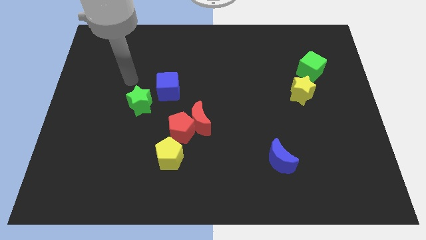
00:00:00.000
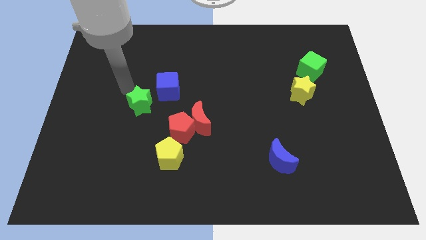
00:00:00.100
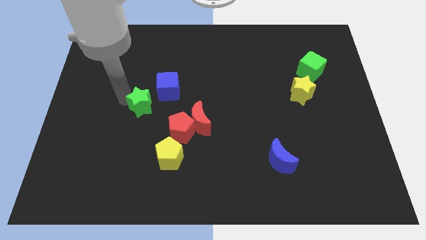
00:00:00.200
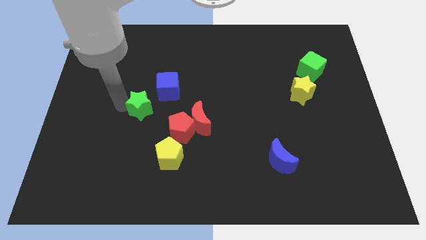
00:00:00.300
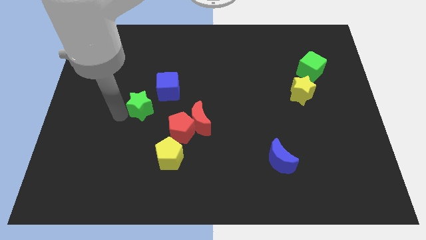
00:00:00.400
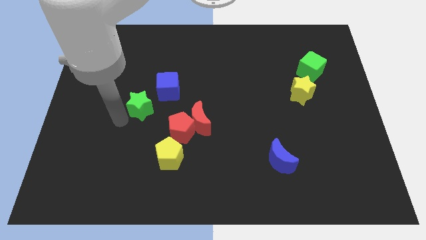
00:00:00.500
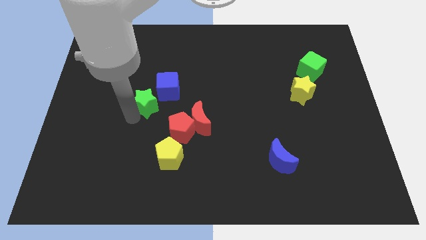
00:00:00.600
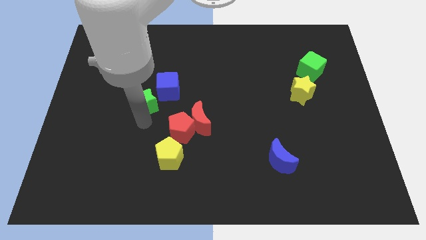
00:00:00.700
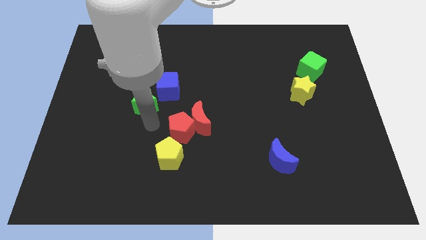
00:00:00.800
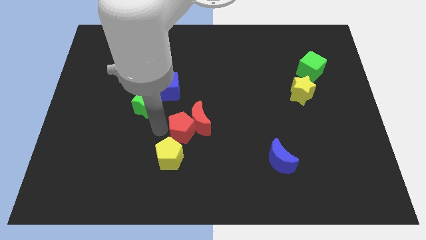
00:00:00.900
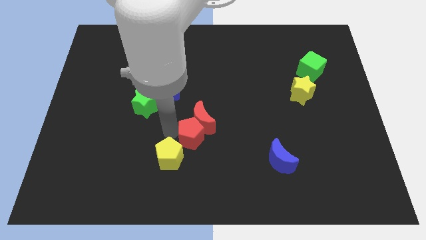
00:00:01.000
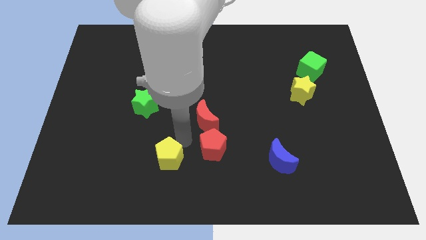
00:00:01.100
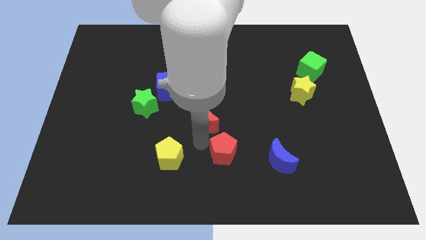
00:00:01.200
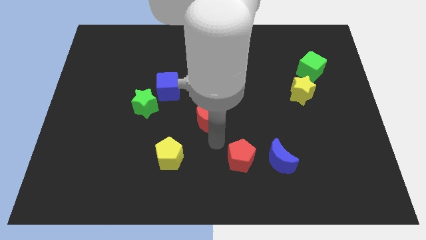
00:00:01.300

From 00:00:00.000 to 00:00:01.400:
separate the red moon from the red pentagon

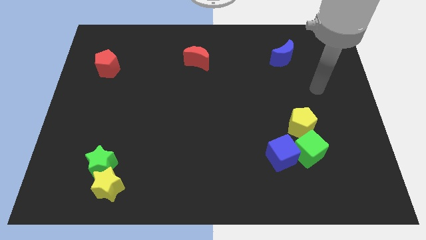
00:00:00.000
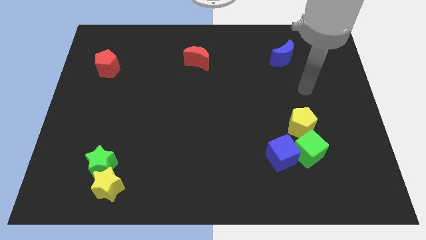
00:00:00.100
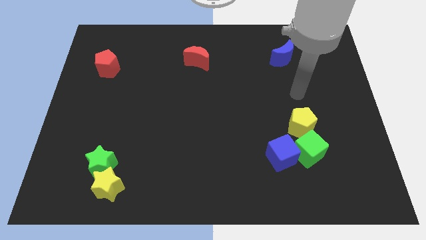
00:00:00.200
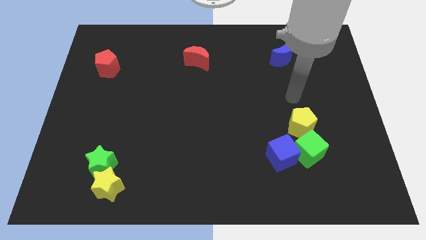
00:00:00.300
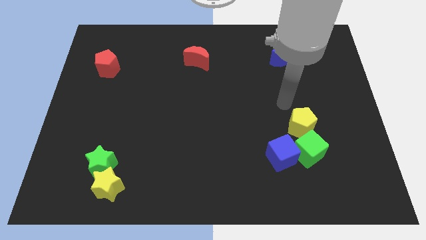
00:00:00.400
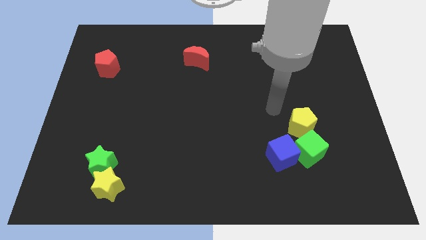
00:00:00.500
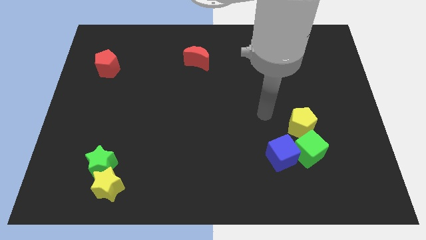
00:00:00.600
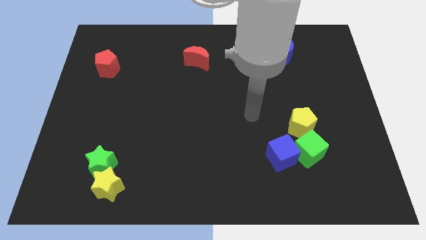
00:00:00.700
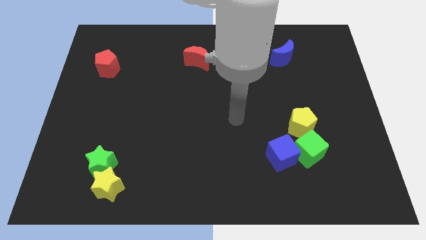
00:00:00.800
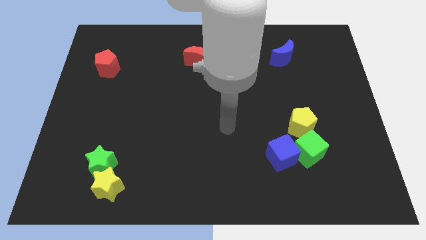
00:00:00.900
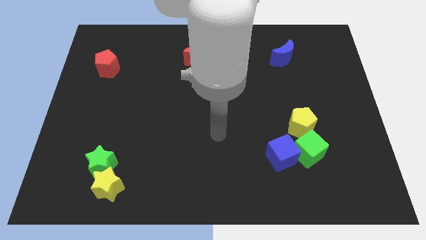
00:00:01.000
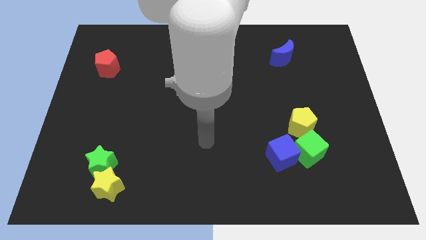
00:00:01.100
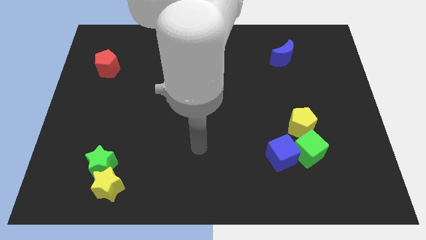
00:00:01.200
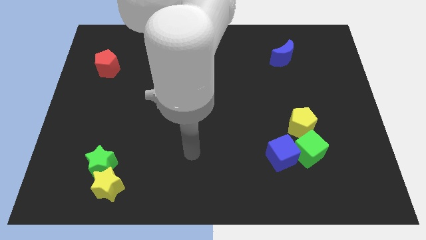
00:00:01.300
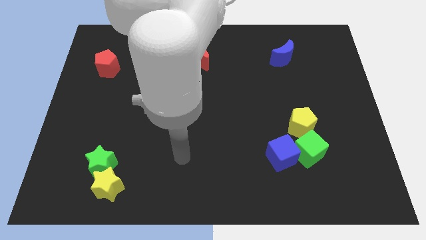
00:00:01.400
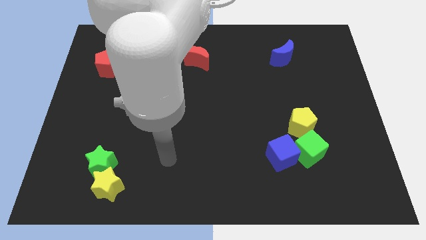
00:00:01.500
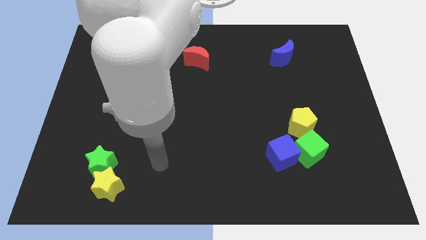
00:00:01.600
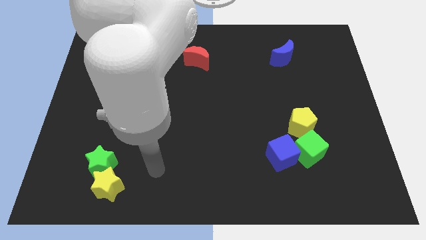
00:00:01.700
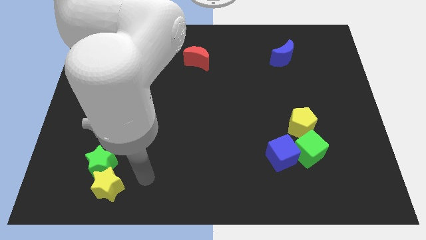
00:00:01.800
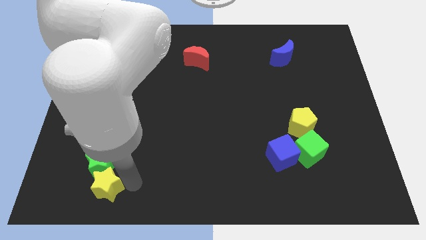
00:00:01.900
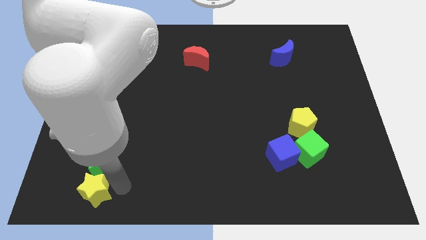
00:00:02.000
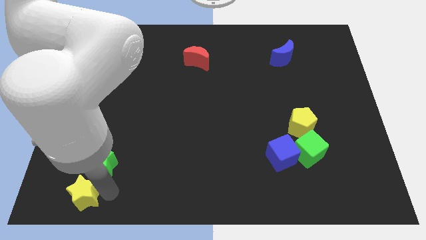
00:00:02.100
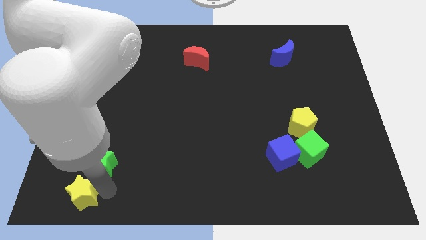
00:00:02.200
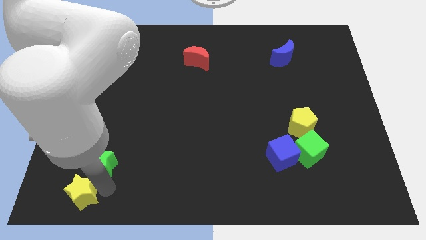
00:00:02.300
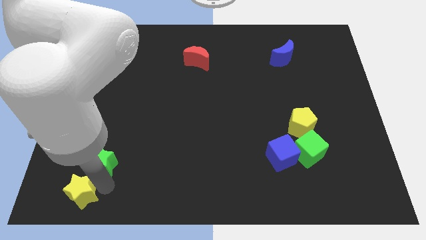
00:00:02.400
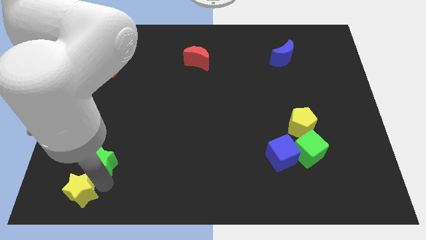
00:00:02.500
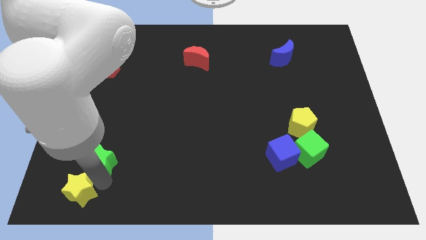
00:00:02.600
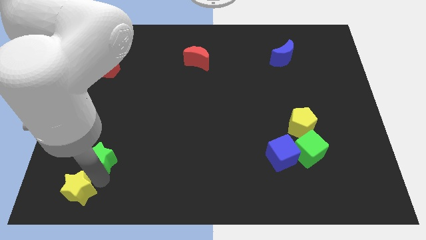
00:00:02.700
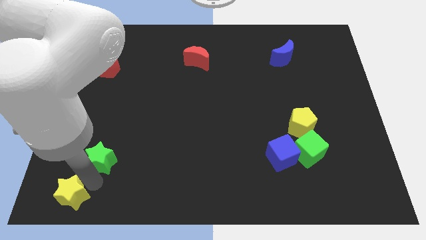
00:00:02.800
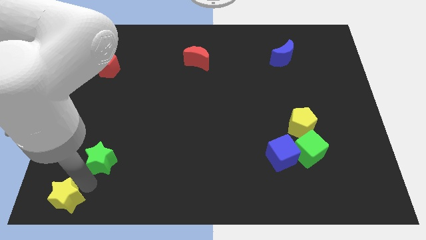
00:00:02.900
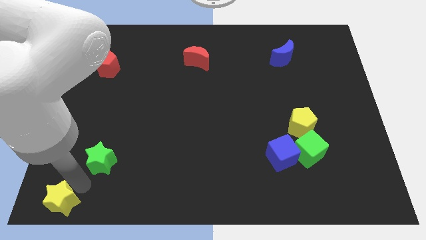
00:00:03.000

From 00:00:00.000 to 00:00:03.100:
move the green star away from the yellow star

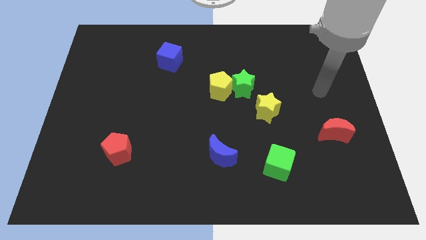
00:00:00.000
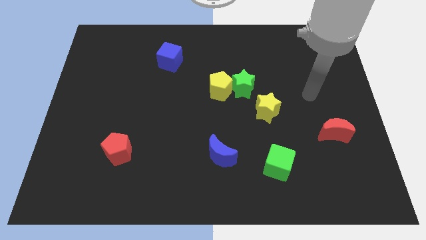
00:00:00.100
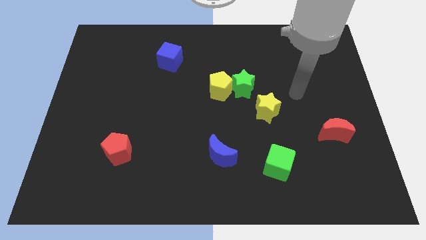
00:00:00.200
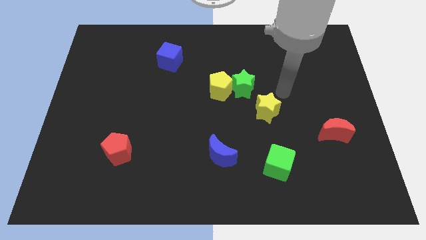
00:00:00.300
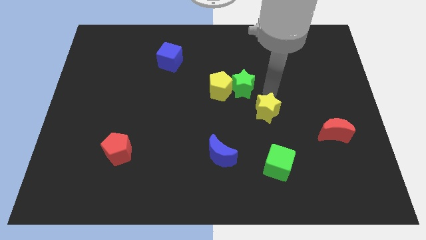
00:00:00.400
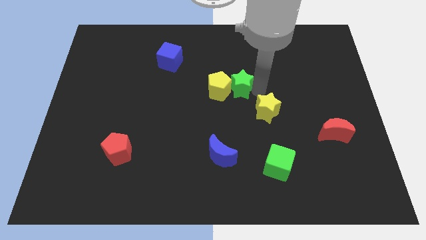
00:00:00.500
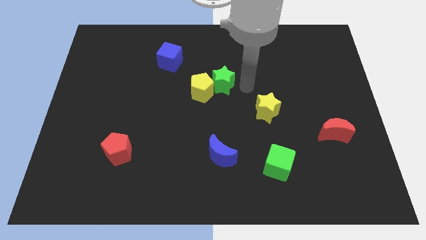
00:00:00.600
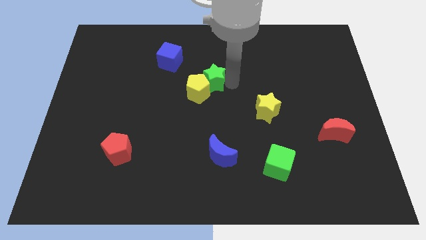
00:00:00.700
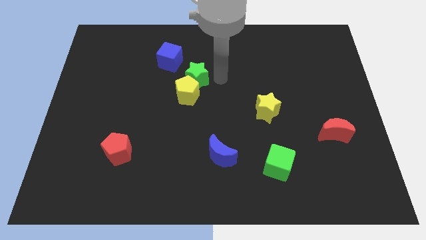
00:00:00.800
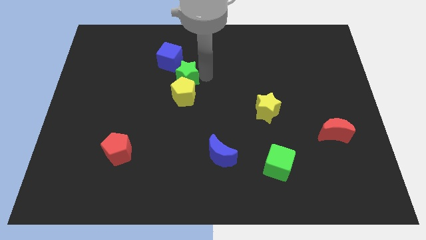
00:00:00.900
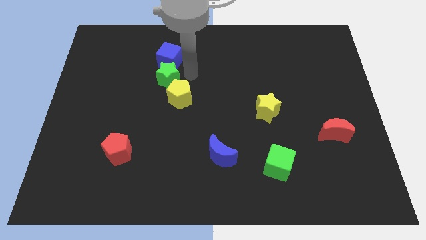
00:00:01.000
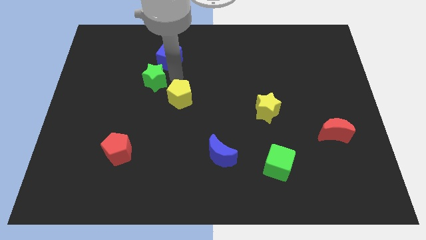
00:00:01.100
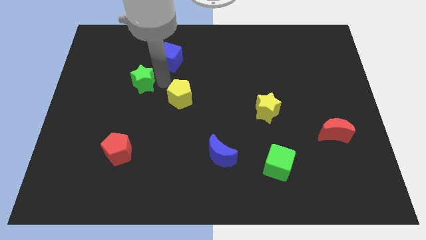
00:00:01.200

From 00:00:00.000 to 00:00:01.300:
move the yellow pentagon away from the green star

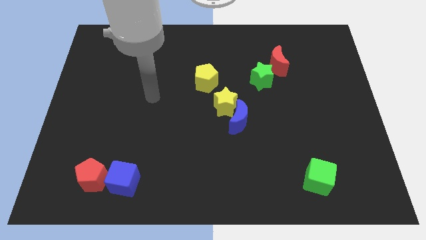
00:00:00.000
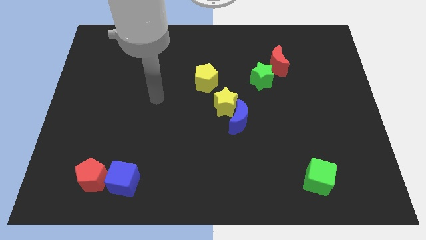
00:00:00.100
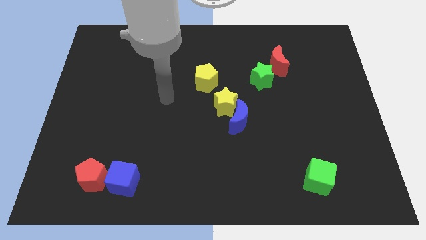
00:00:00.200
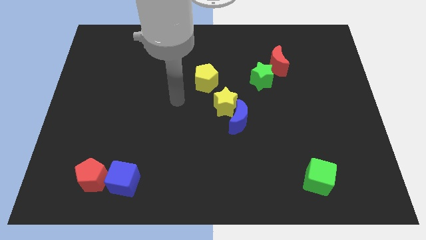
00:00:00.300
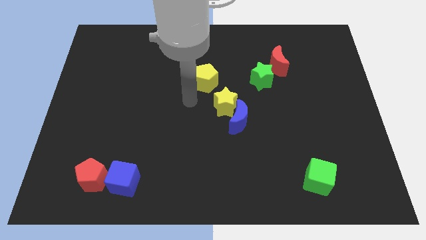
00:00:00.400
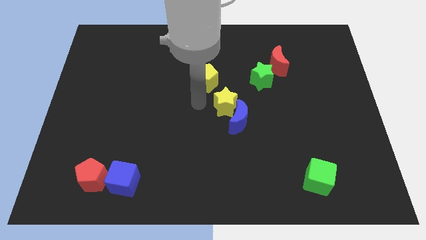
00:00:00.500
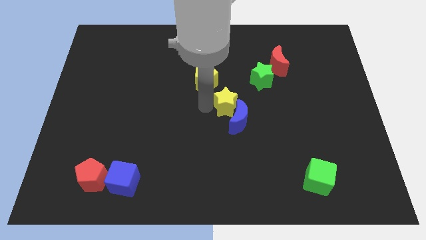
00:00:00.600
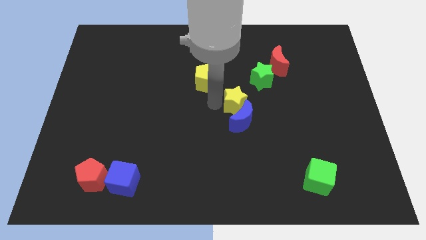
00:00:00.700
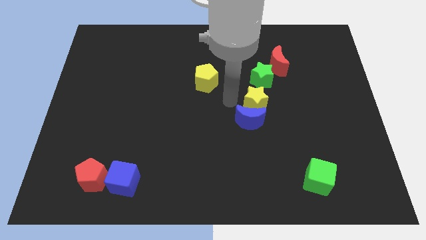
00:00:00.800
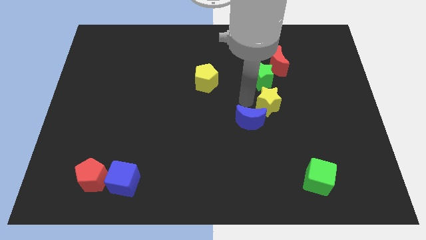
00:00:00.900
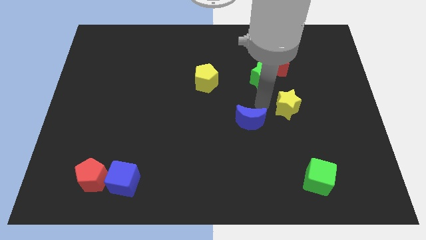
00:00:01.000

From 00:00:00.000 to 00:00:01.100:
move the blue moon away from the yellow star

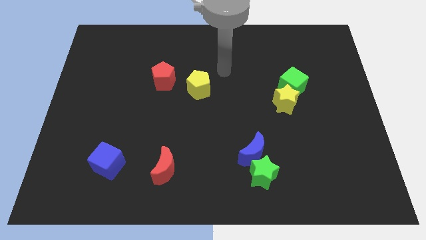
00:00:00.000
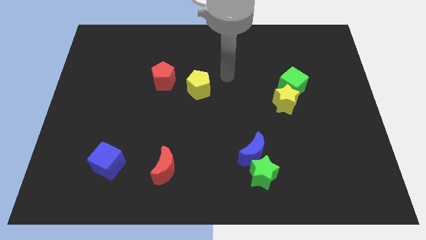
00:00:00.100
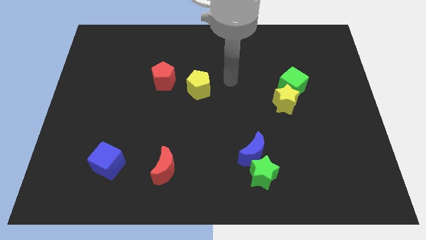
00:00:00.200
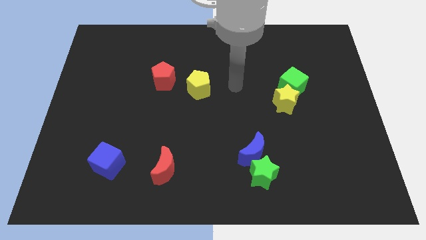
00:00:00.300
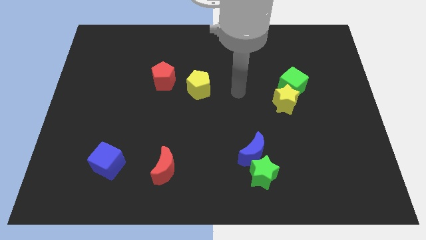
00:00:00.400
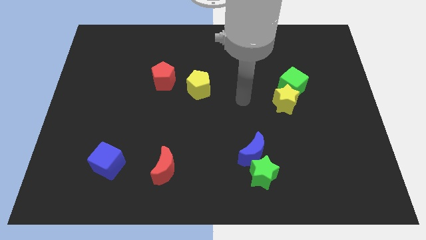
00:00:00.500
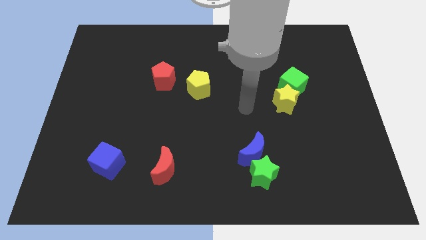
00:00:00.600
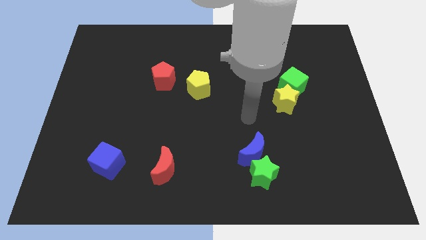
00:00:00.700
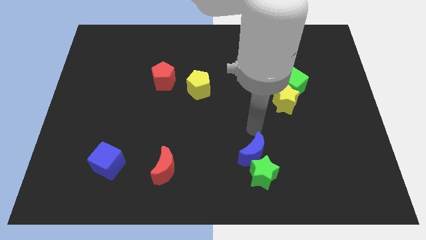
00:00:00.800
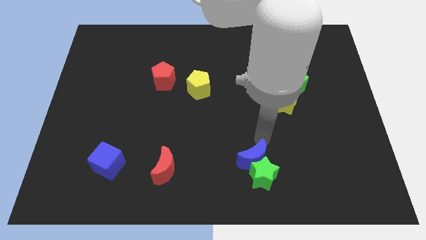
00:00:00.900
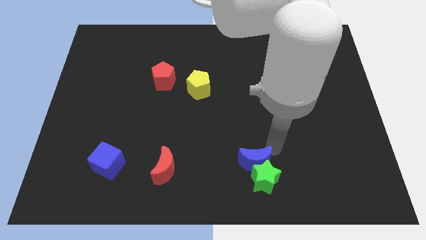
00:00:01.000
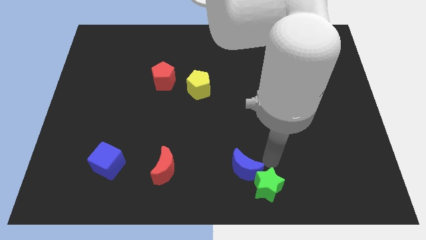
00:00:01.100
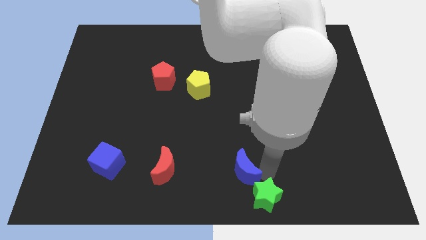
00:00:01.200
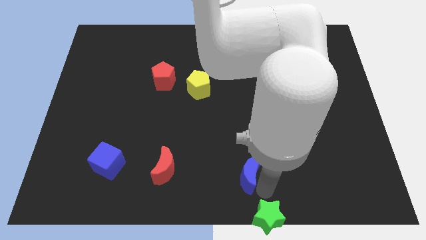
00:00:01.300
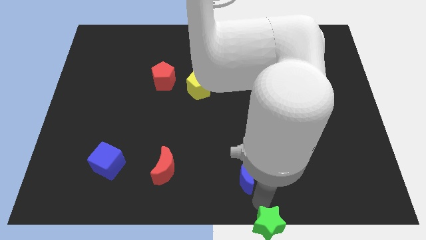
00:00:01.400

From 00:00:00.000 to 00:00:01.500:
move the blue moon away from the green star

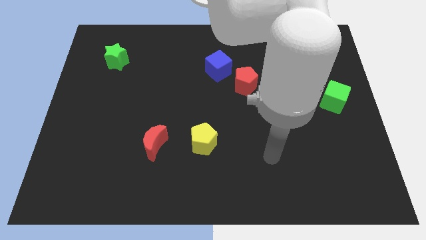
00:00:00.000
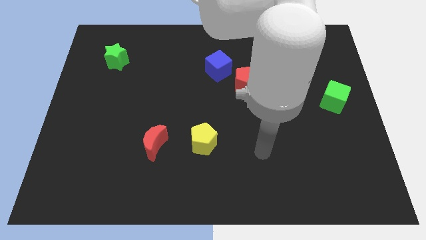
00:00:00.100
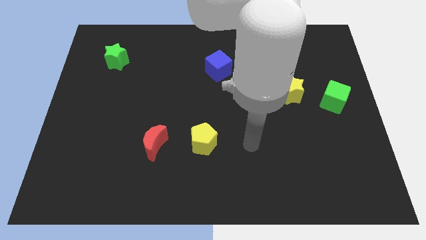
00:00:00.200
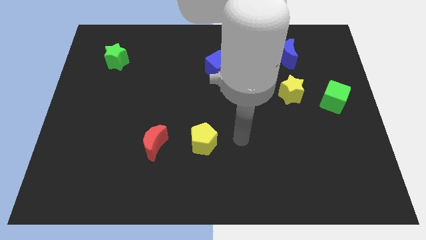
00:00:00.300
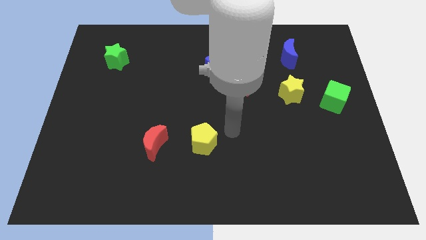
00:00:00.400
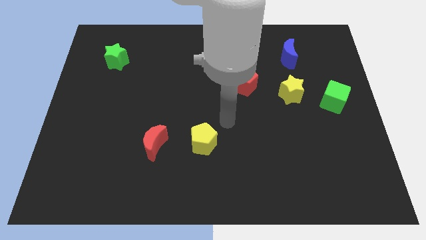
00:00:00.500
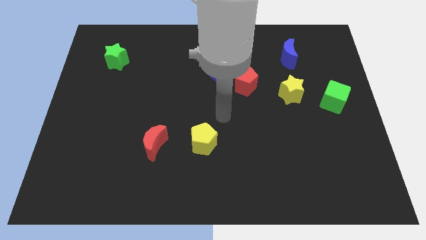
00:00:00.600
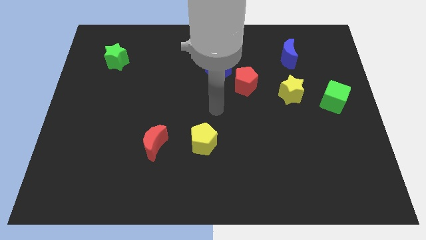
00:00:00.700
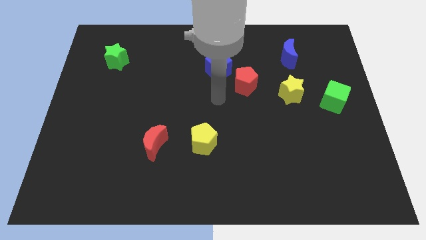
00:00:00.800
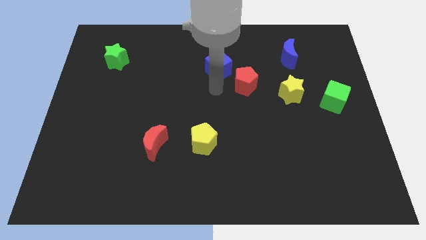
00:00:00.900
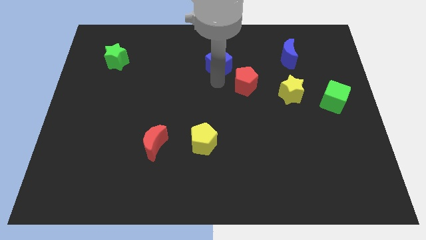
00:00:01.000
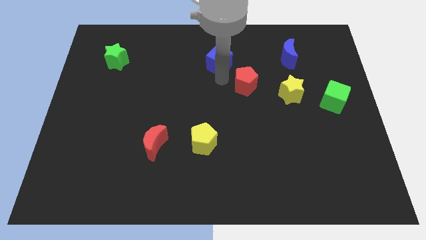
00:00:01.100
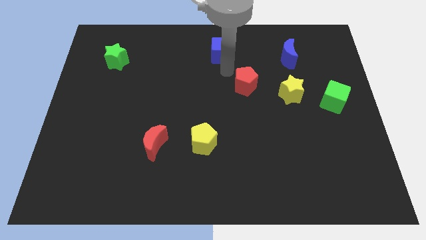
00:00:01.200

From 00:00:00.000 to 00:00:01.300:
move the red pentagon away from the blue cube
